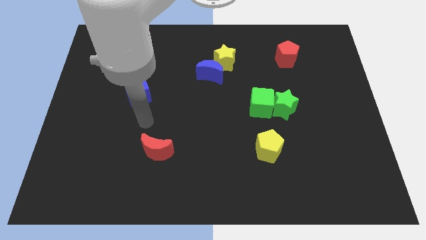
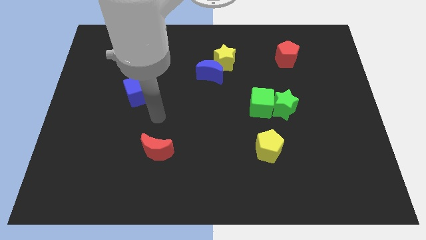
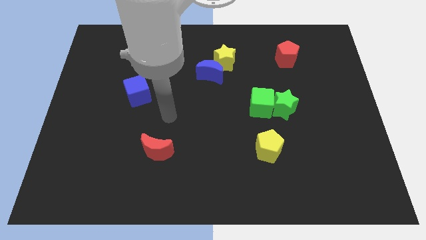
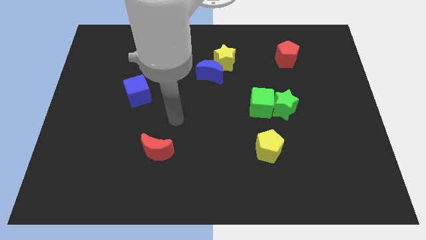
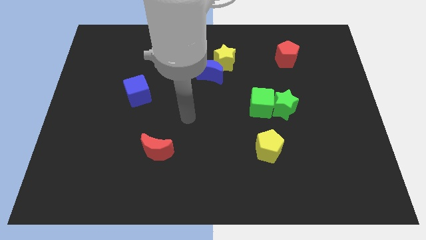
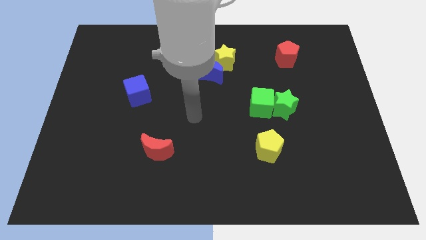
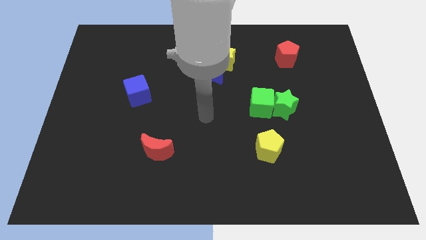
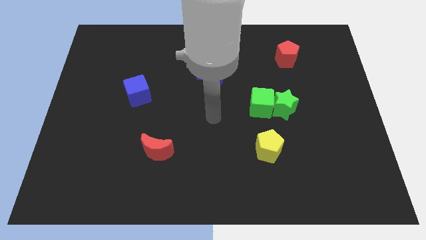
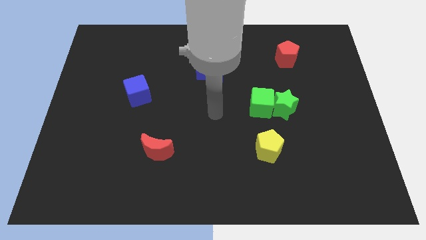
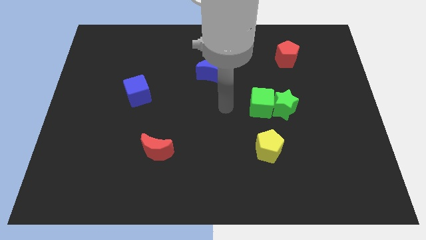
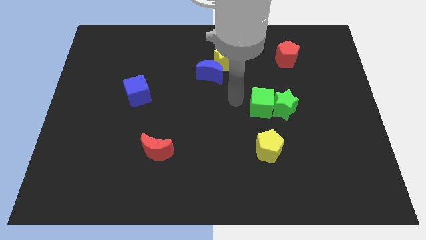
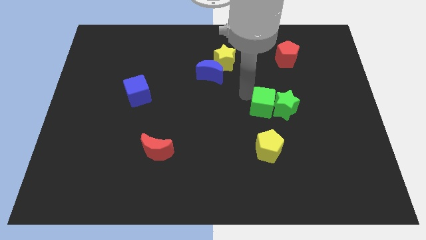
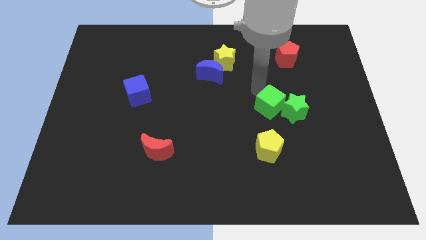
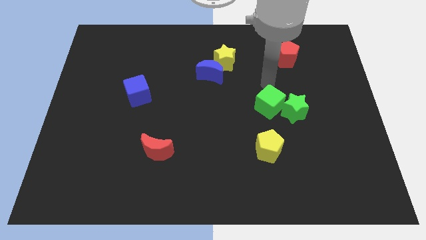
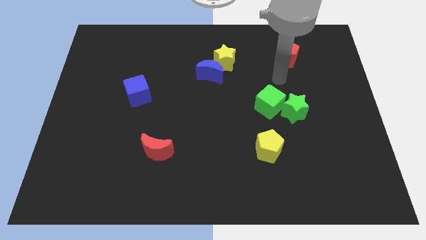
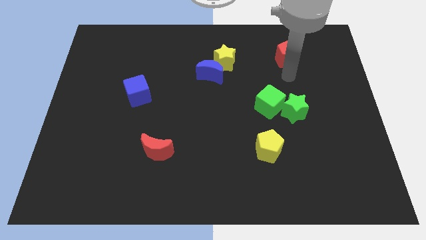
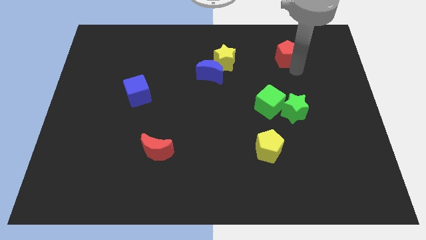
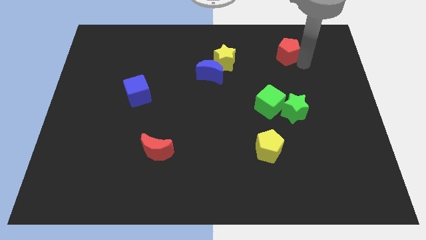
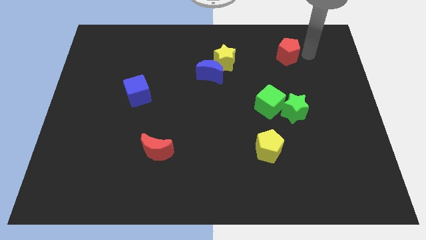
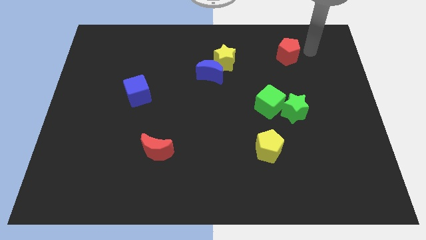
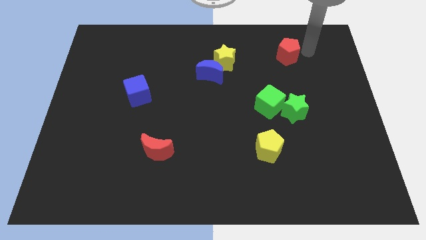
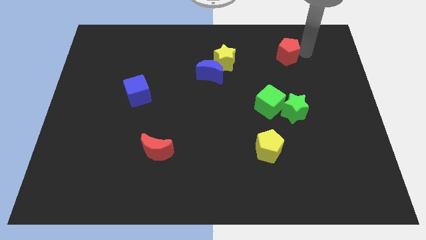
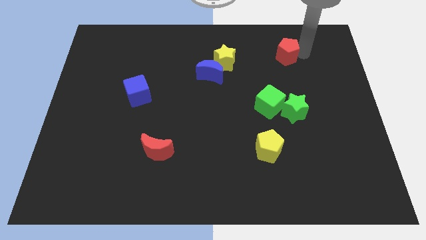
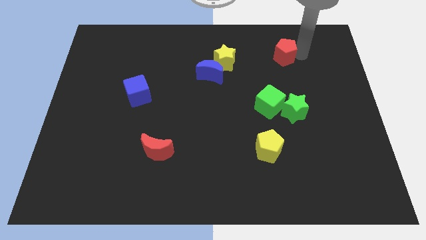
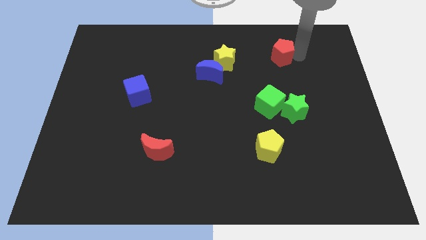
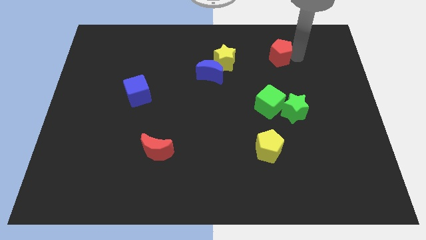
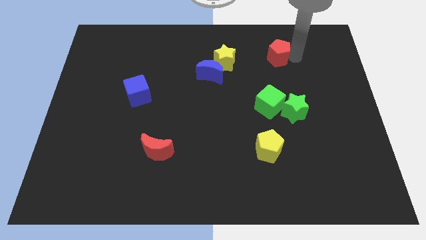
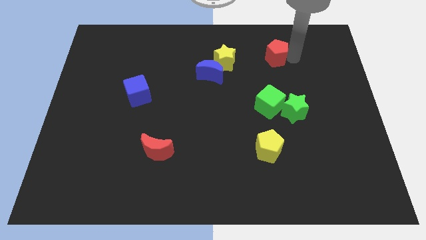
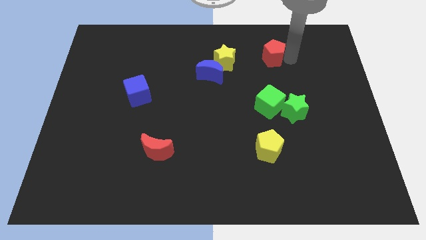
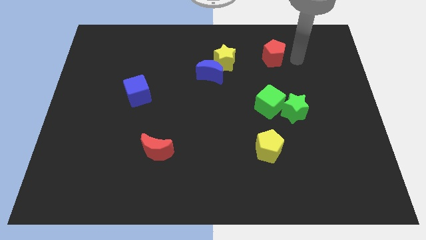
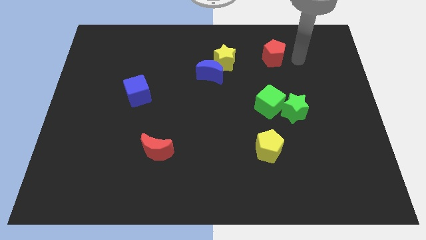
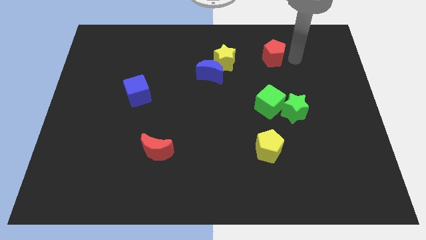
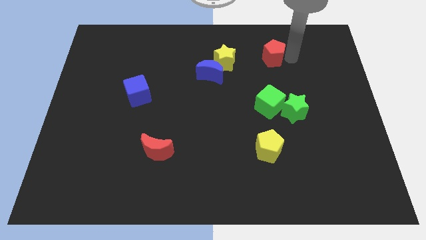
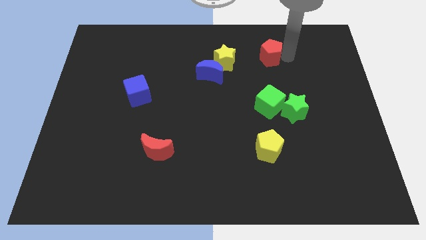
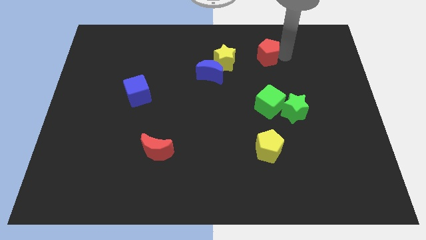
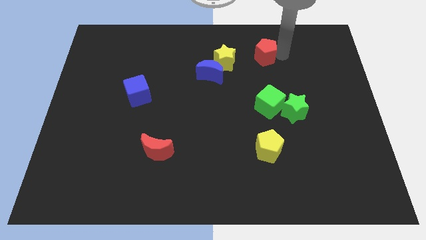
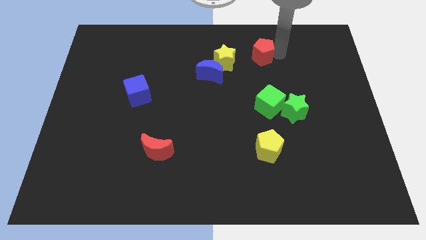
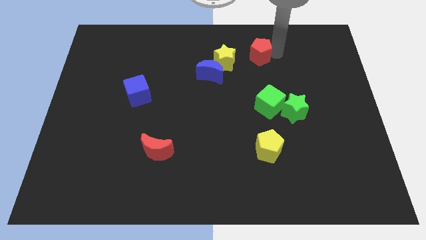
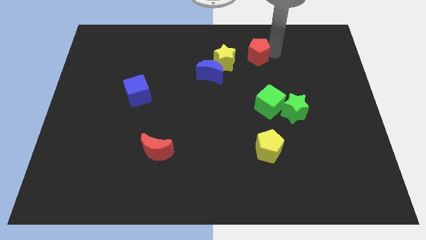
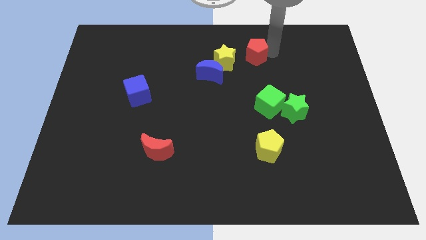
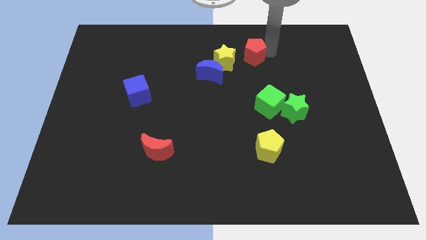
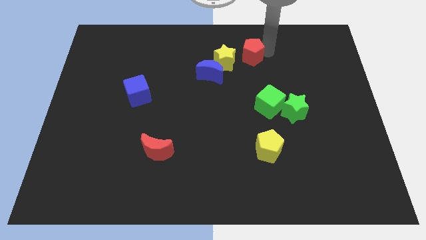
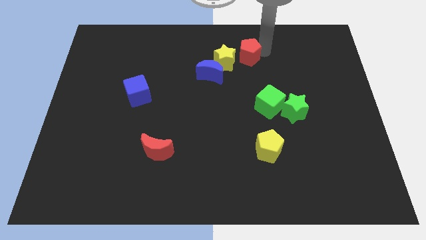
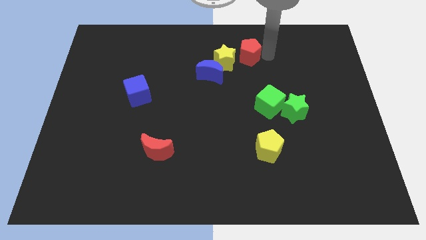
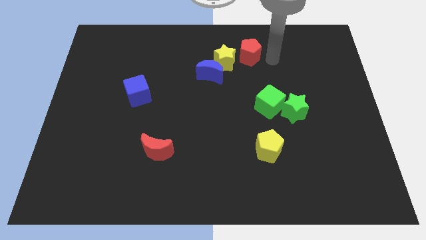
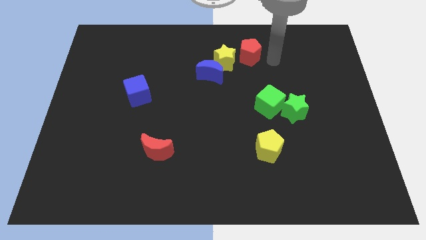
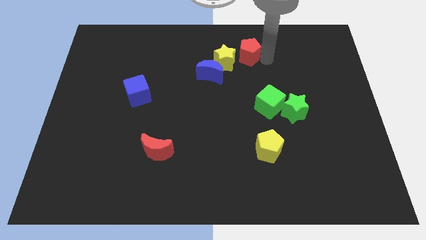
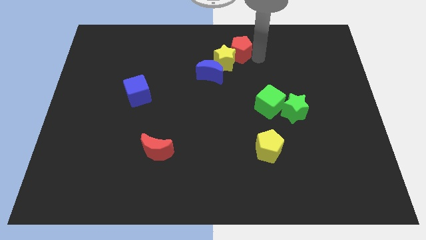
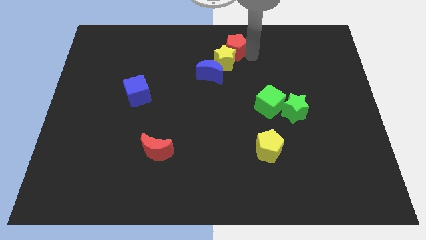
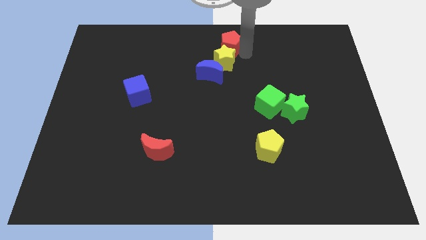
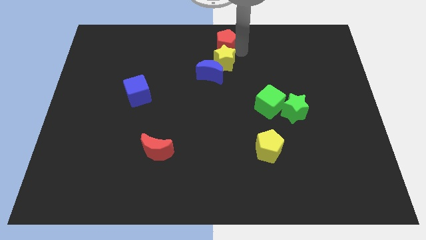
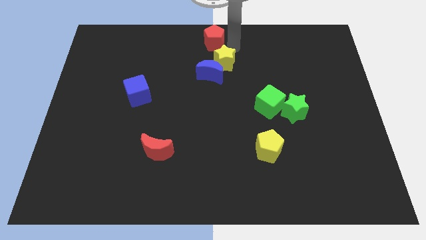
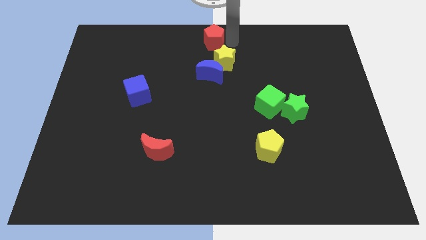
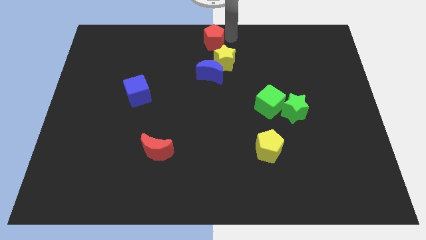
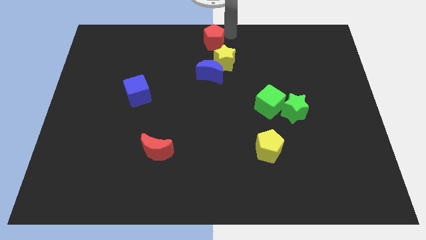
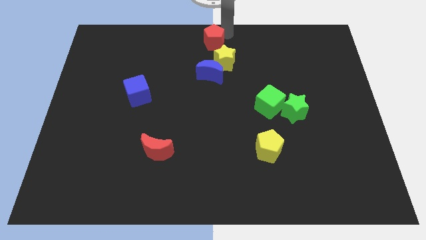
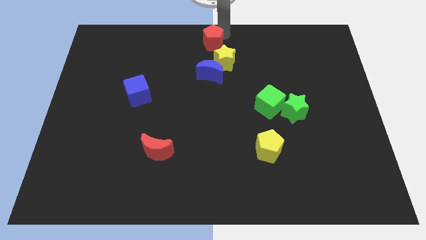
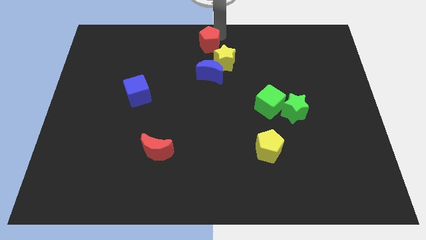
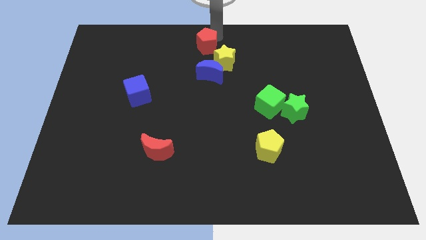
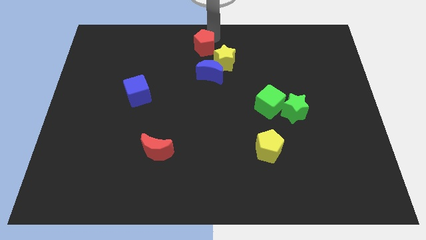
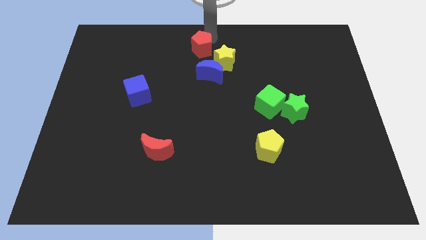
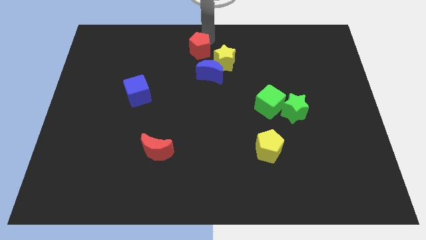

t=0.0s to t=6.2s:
put the red pentagon just left of the yellow star

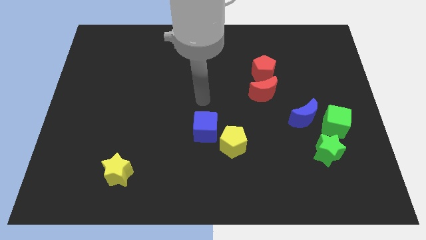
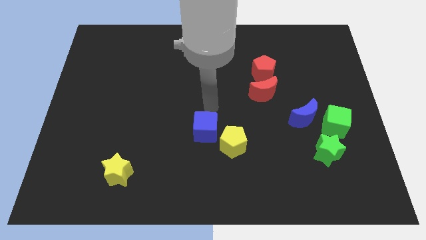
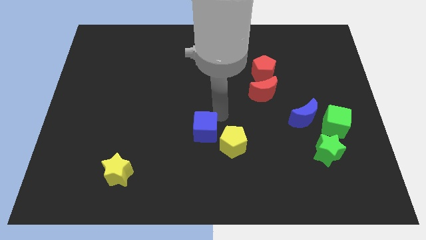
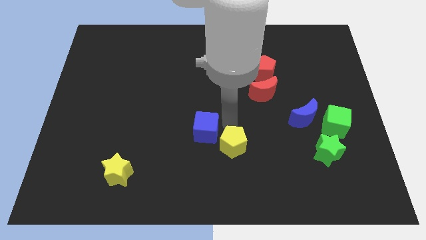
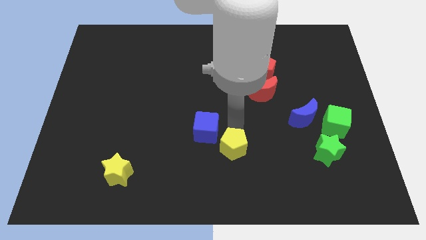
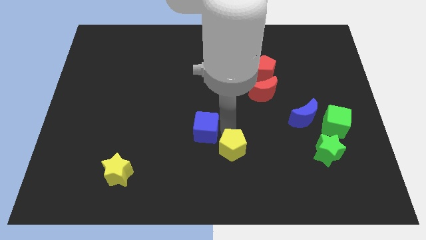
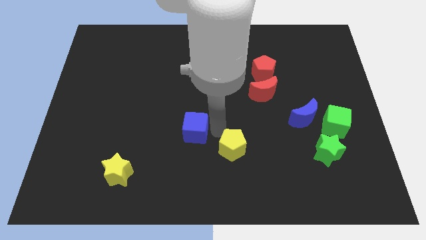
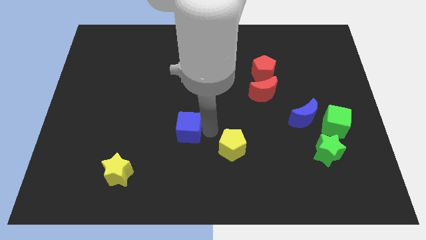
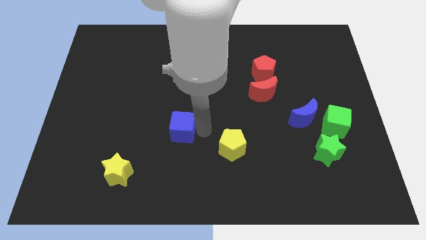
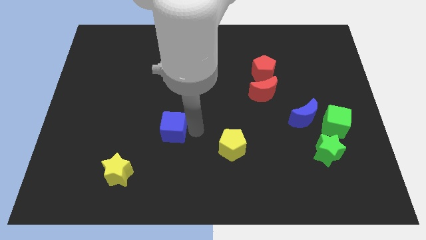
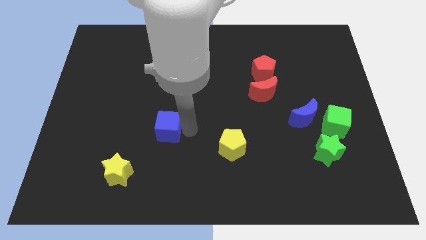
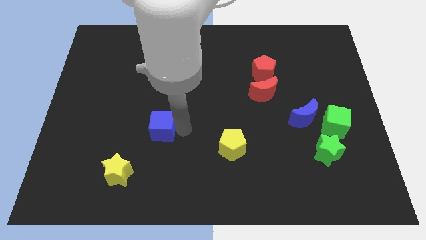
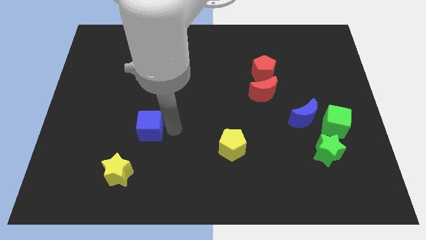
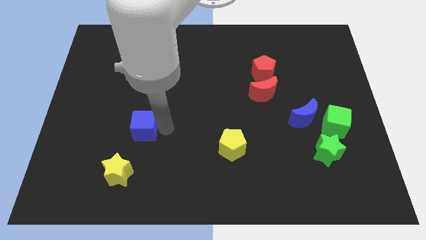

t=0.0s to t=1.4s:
push the blue cube to the top side of the yellow star
